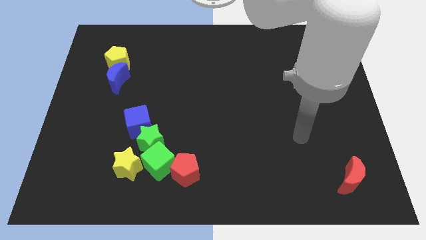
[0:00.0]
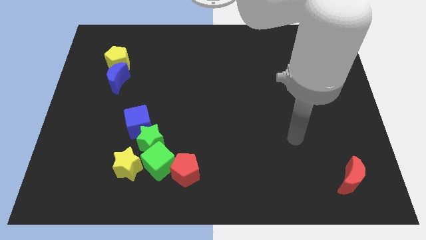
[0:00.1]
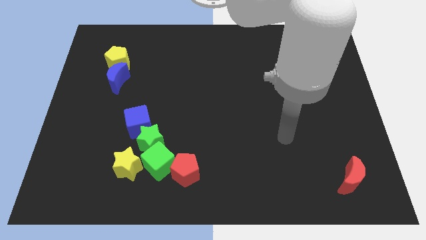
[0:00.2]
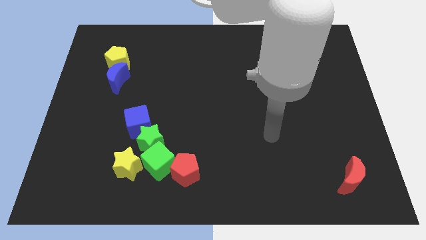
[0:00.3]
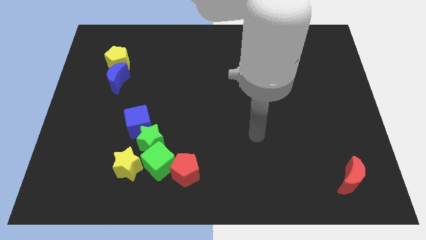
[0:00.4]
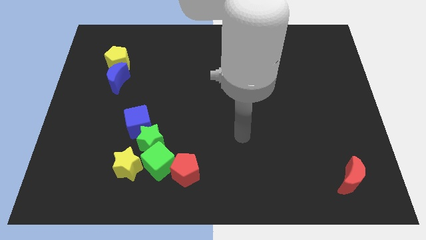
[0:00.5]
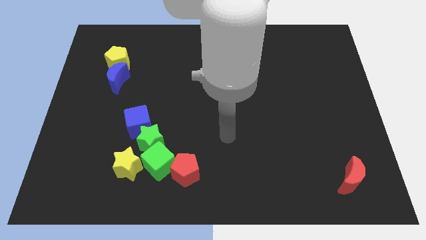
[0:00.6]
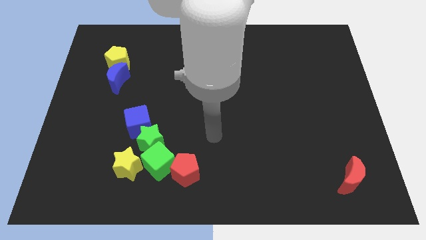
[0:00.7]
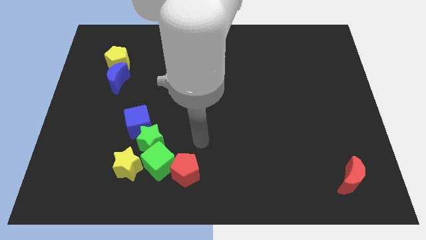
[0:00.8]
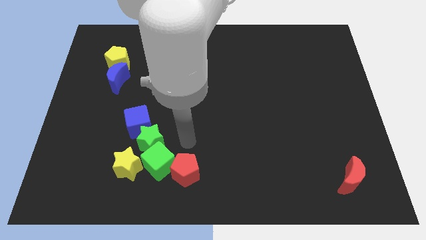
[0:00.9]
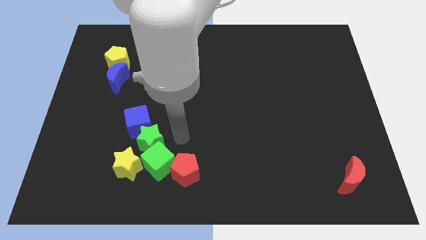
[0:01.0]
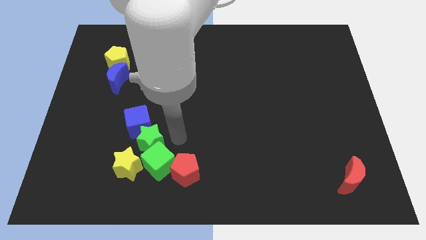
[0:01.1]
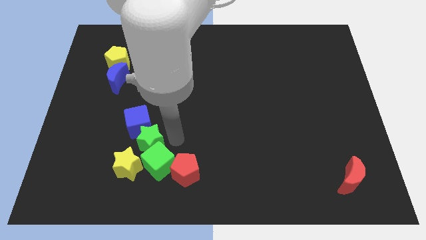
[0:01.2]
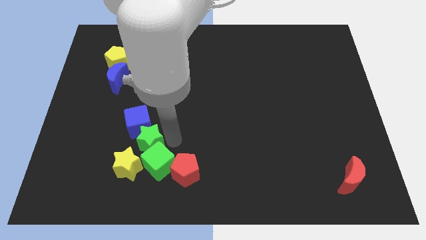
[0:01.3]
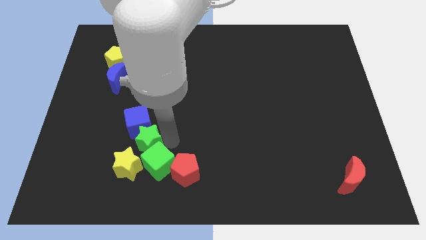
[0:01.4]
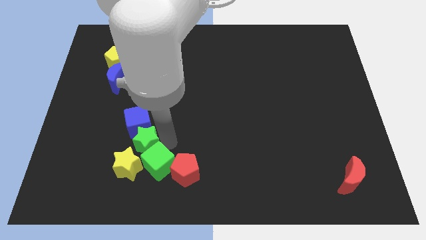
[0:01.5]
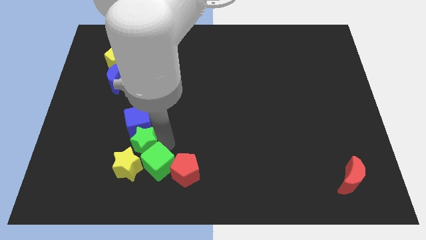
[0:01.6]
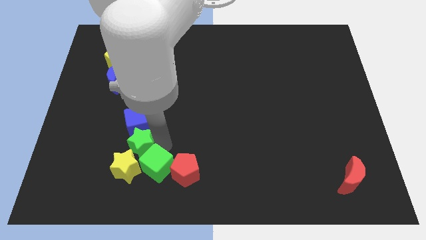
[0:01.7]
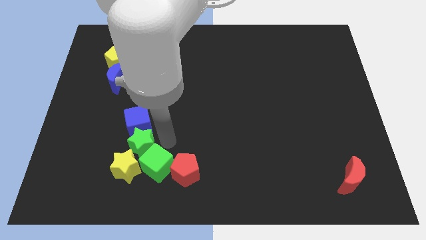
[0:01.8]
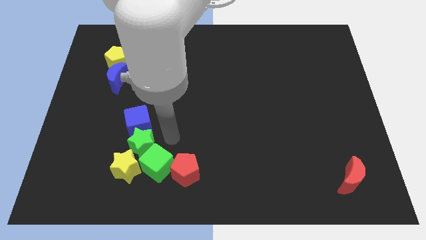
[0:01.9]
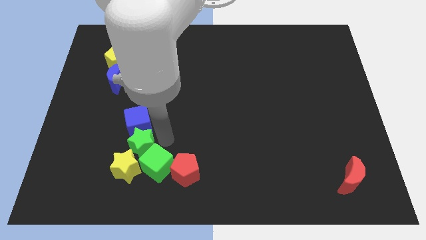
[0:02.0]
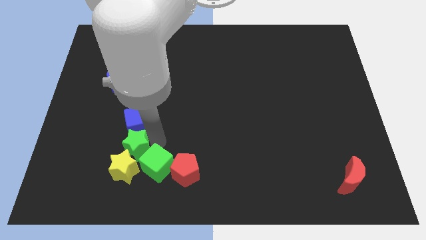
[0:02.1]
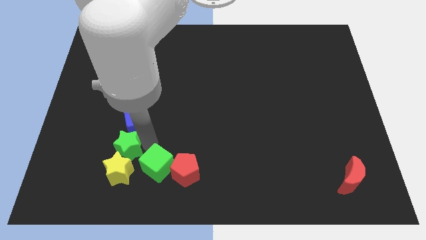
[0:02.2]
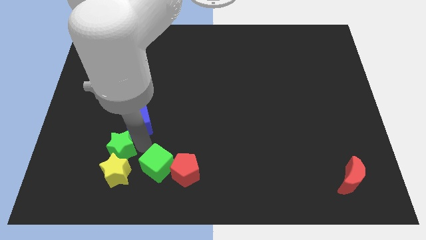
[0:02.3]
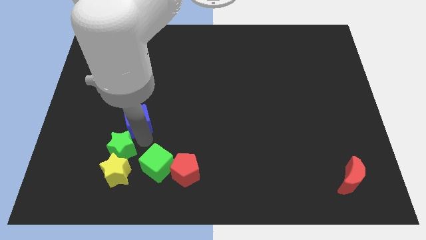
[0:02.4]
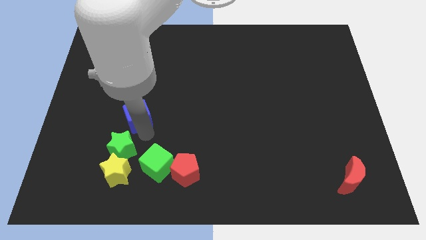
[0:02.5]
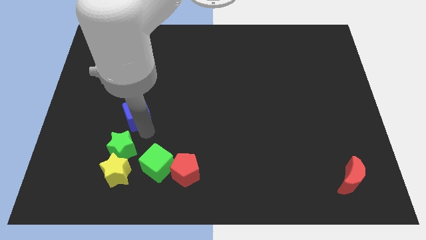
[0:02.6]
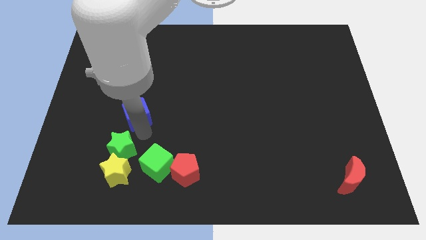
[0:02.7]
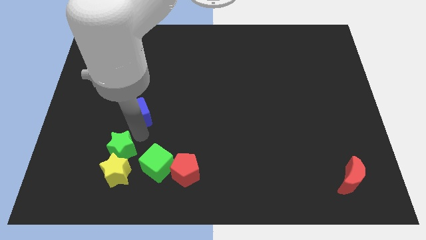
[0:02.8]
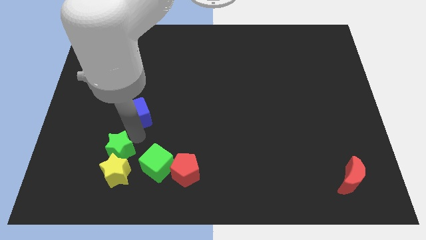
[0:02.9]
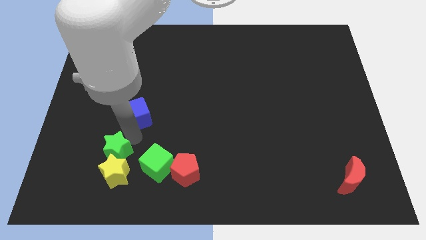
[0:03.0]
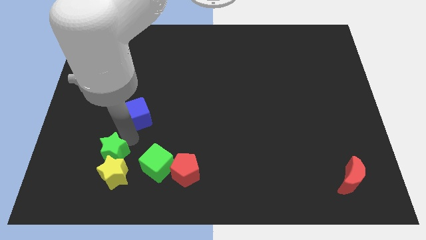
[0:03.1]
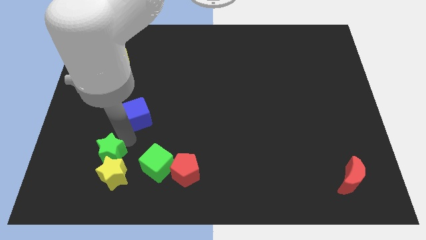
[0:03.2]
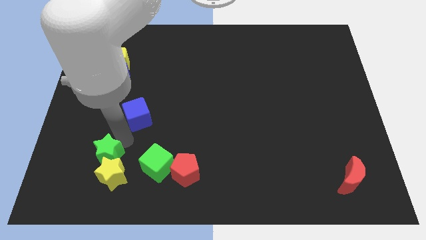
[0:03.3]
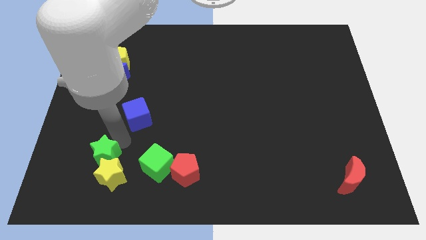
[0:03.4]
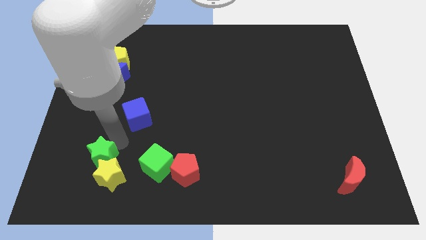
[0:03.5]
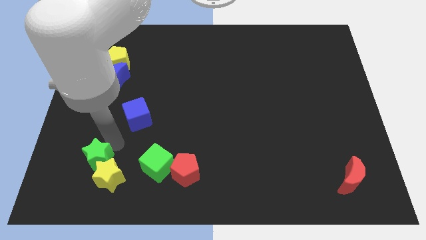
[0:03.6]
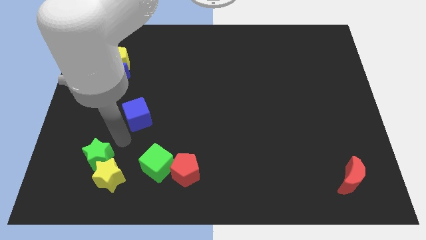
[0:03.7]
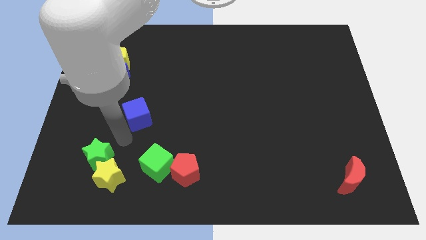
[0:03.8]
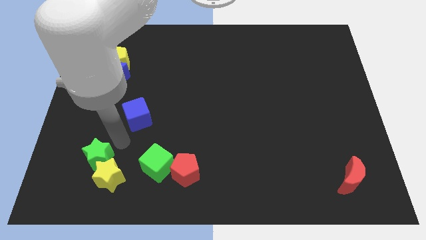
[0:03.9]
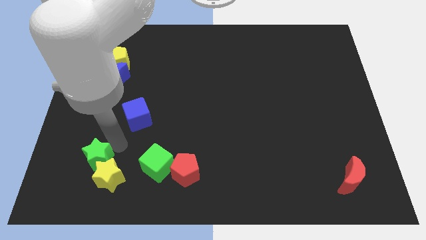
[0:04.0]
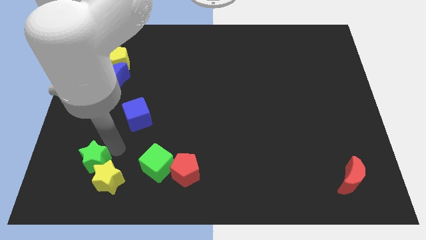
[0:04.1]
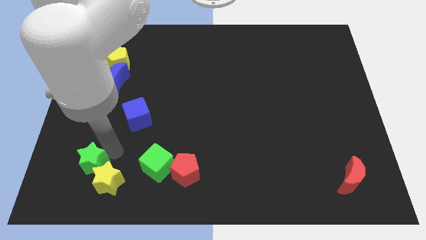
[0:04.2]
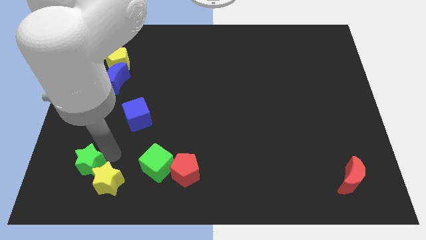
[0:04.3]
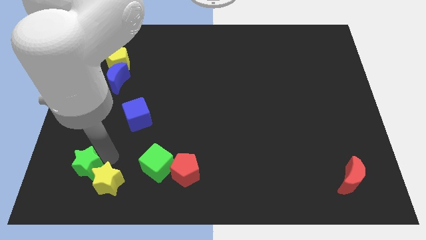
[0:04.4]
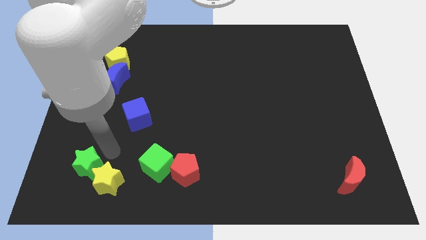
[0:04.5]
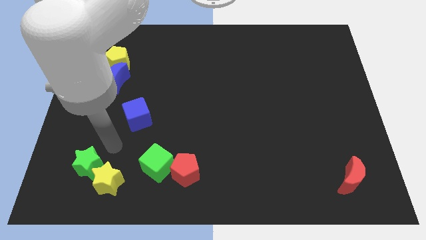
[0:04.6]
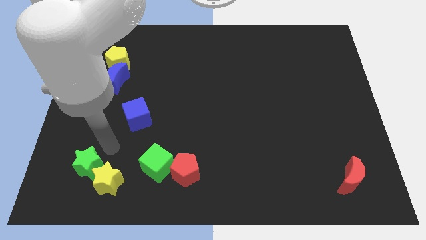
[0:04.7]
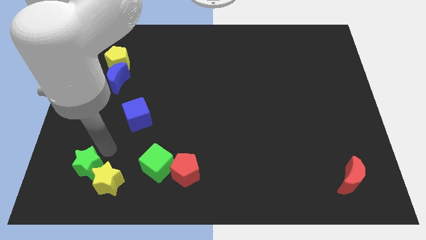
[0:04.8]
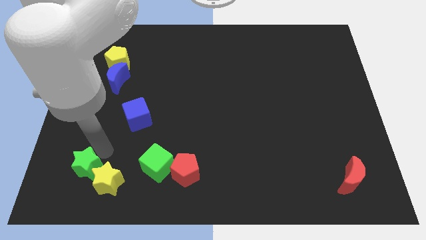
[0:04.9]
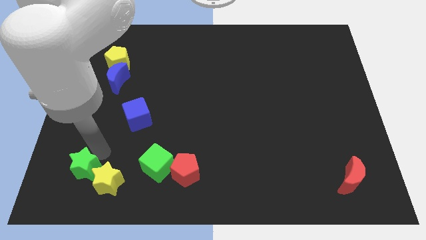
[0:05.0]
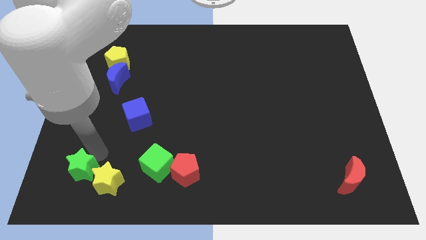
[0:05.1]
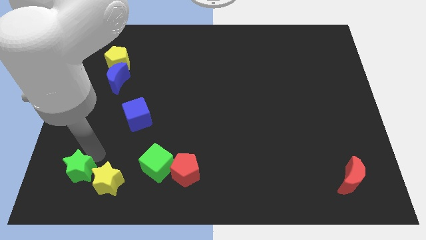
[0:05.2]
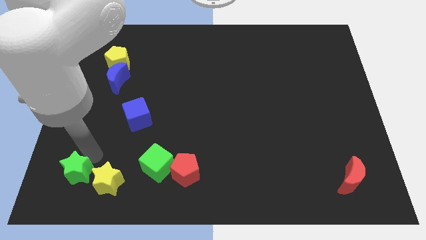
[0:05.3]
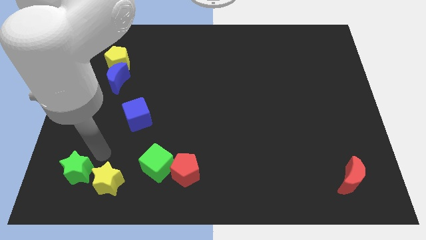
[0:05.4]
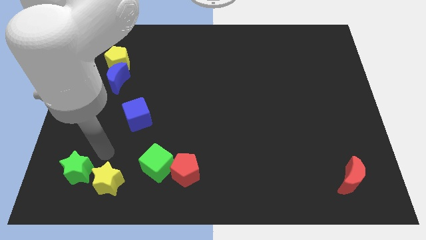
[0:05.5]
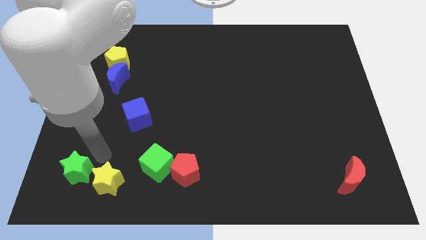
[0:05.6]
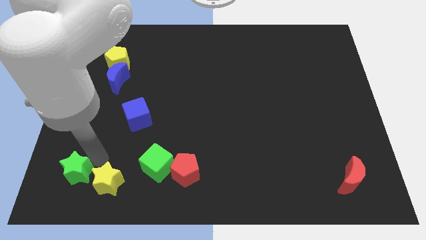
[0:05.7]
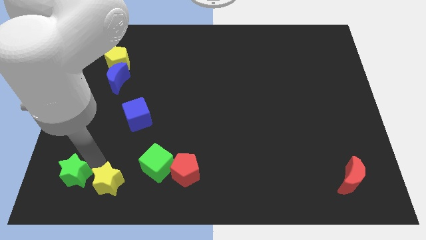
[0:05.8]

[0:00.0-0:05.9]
put the green star to the bottom left

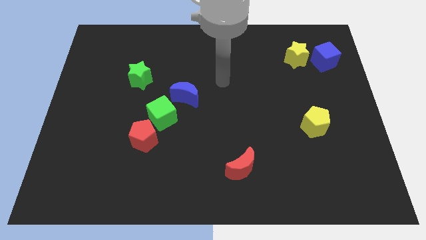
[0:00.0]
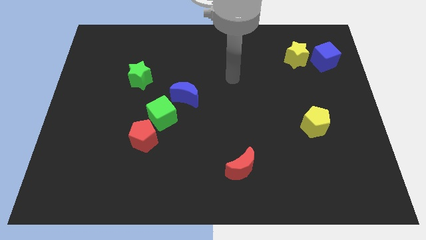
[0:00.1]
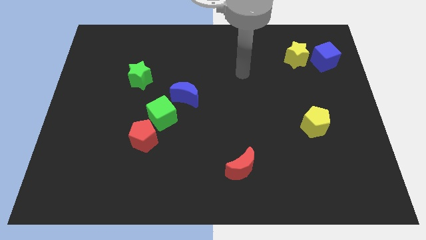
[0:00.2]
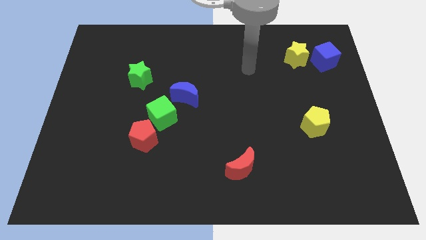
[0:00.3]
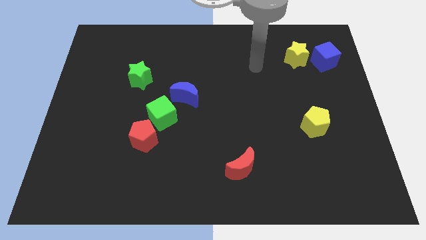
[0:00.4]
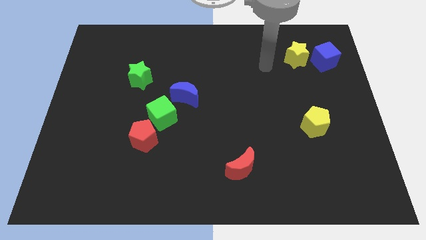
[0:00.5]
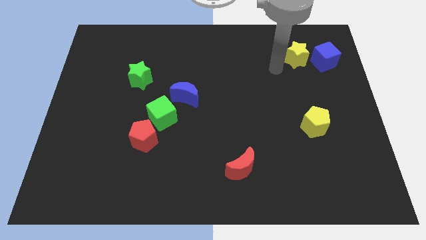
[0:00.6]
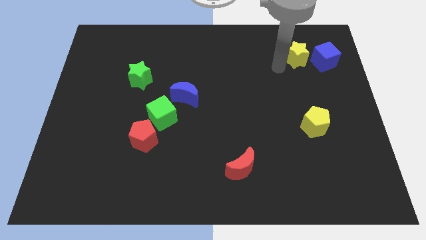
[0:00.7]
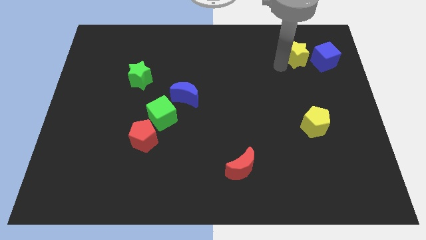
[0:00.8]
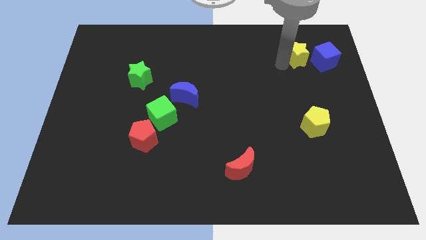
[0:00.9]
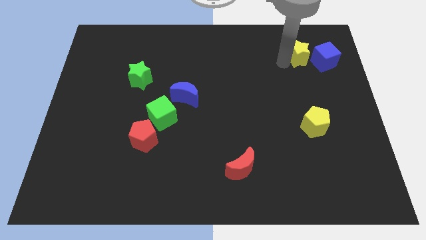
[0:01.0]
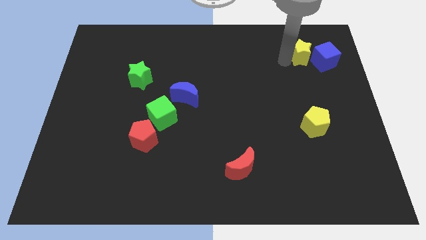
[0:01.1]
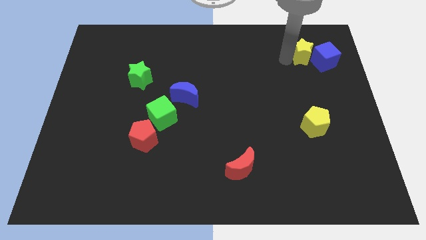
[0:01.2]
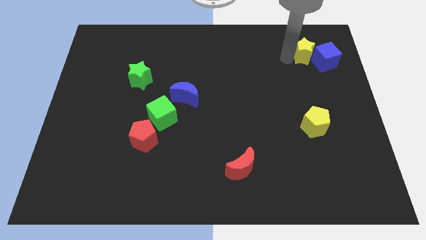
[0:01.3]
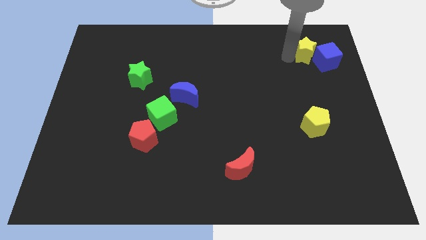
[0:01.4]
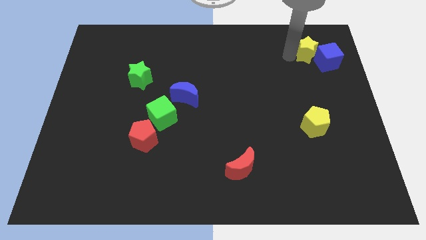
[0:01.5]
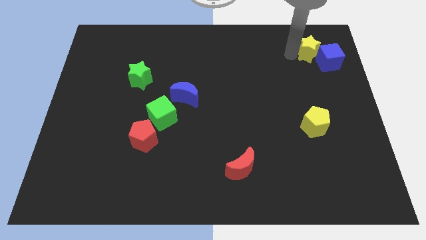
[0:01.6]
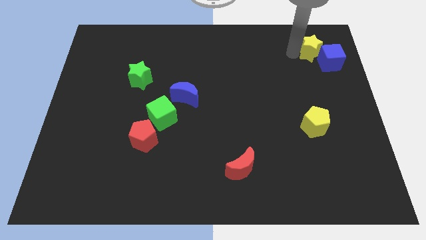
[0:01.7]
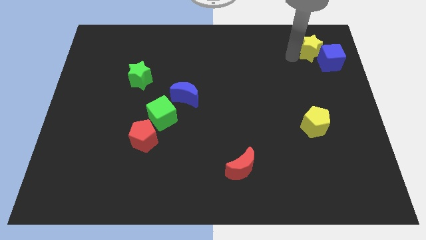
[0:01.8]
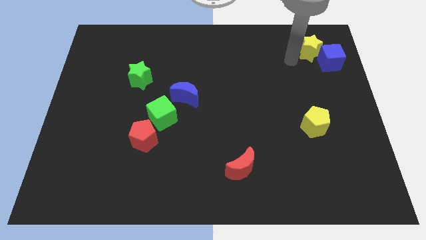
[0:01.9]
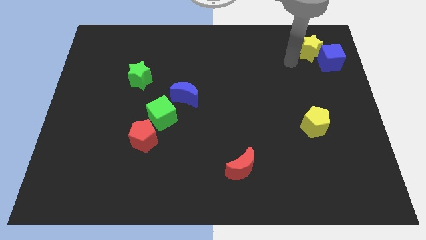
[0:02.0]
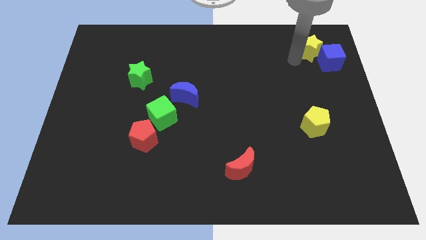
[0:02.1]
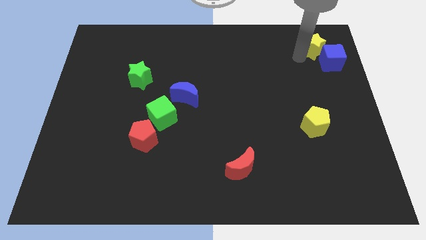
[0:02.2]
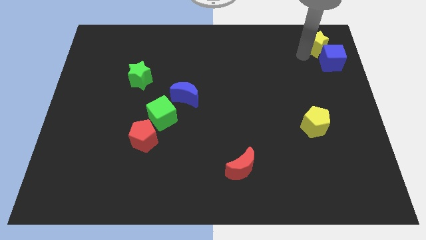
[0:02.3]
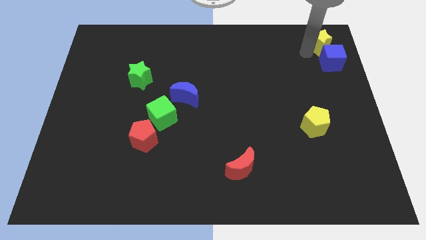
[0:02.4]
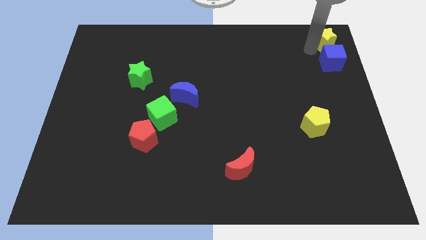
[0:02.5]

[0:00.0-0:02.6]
put the yellow star to the top right
